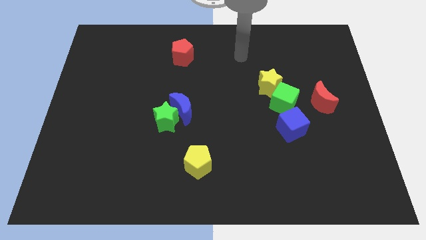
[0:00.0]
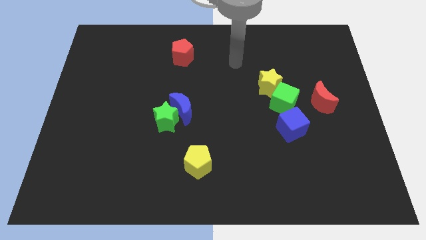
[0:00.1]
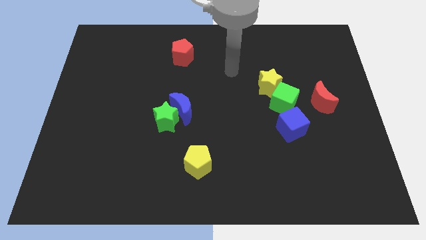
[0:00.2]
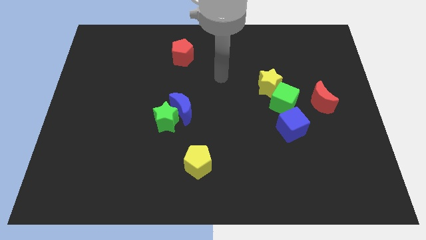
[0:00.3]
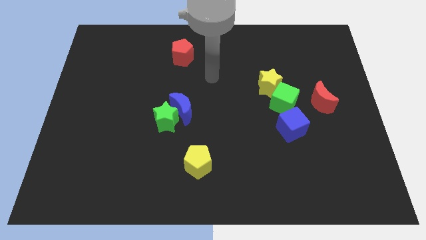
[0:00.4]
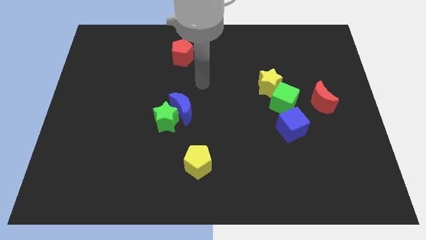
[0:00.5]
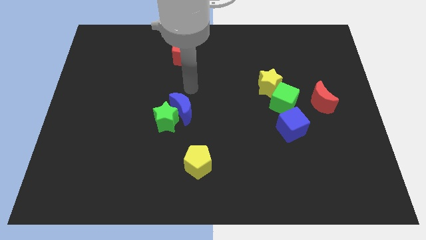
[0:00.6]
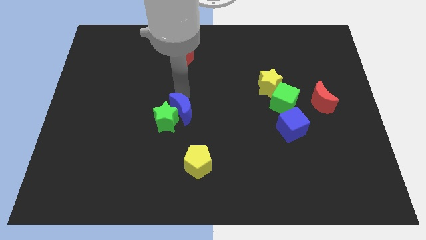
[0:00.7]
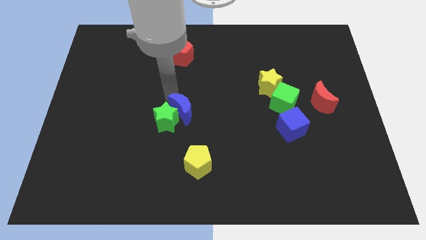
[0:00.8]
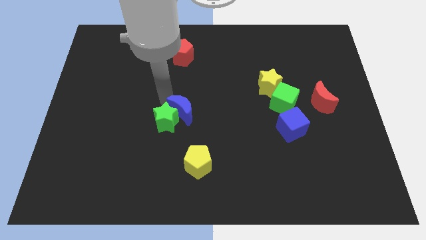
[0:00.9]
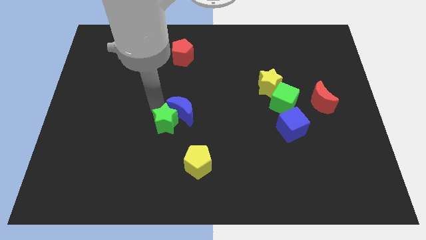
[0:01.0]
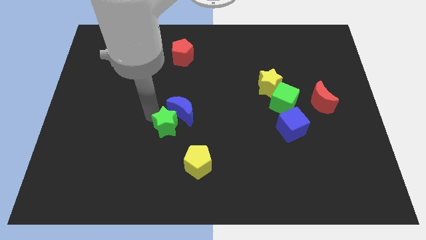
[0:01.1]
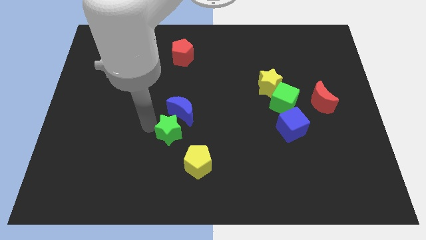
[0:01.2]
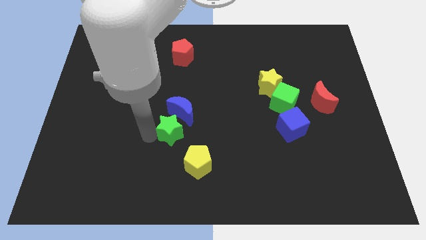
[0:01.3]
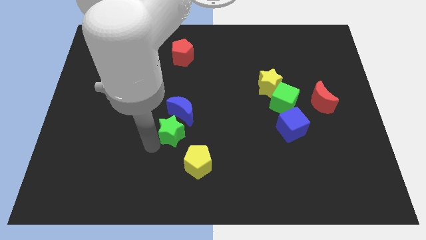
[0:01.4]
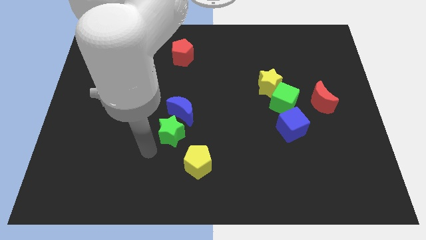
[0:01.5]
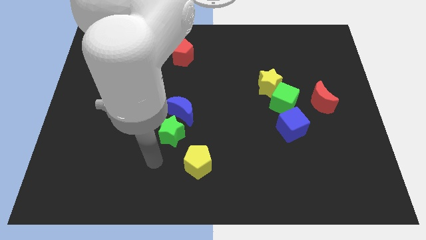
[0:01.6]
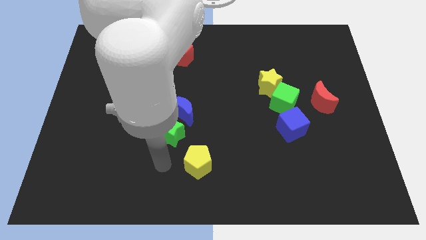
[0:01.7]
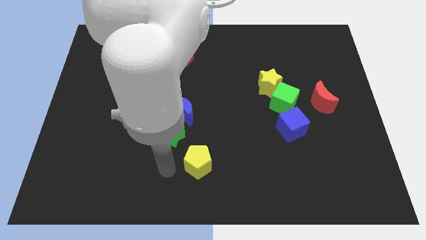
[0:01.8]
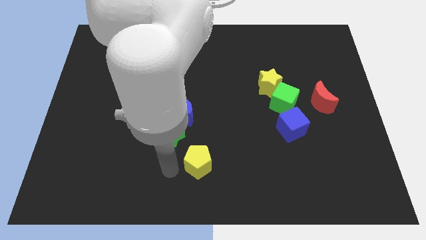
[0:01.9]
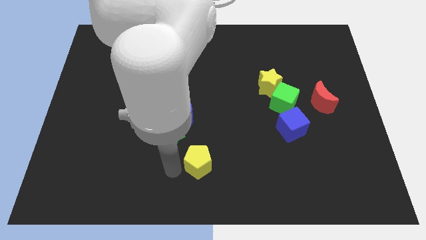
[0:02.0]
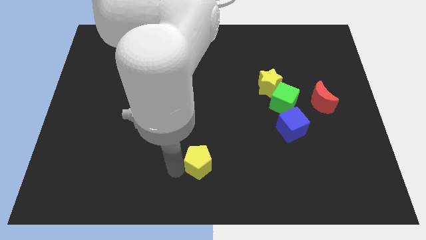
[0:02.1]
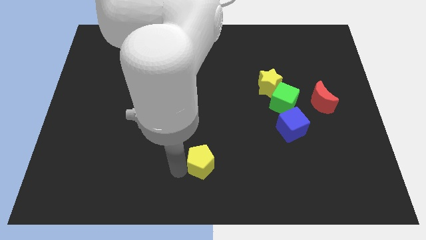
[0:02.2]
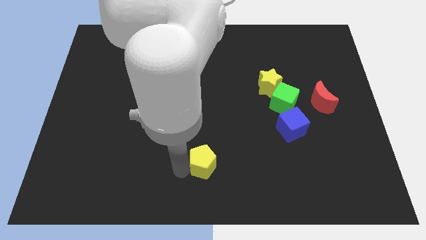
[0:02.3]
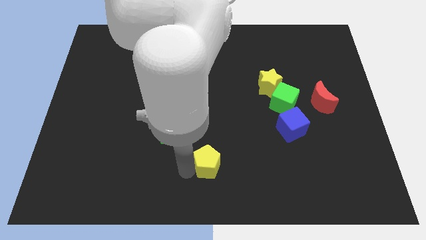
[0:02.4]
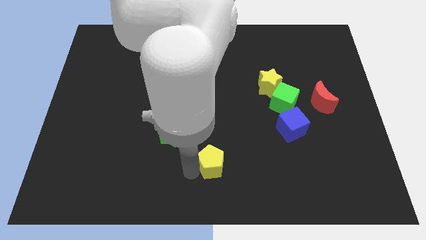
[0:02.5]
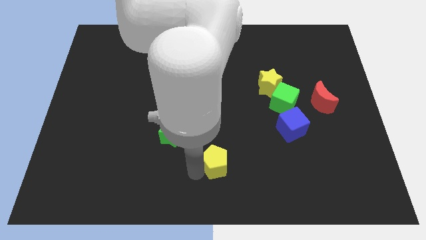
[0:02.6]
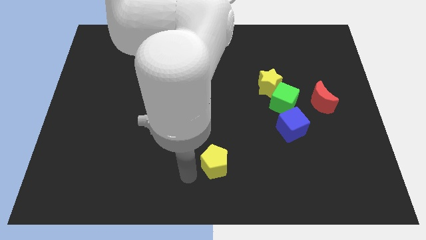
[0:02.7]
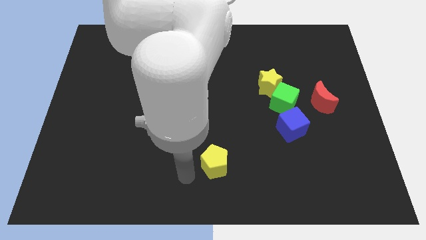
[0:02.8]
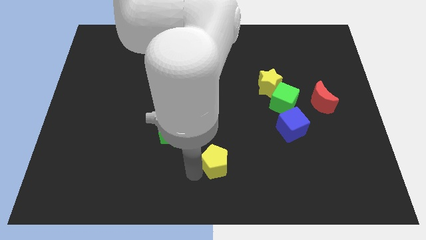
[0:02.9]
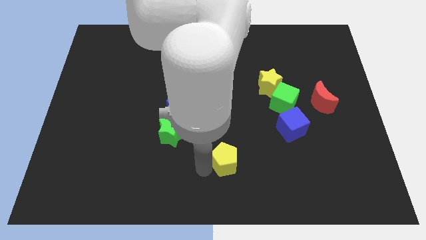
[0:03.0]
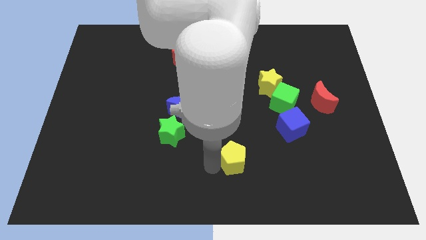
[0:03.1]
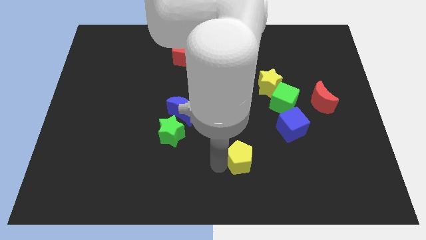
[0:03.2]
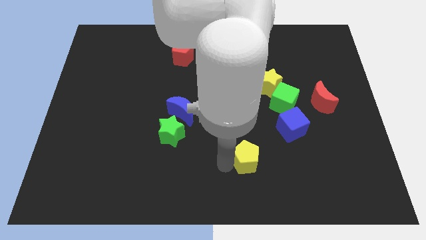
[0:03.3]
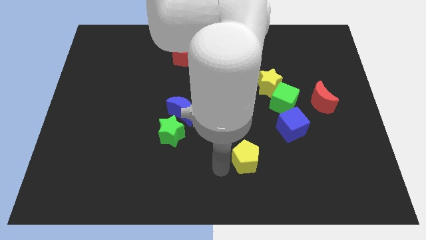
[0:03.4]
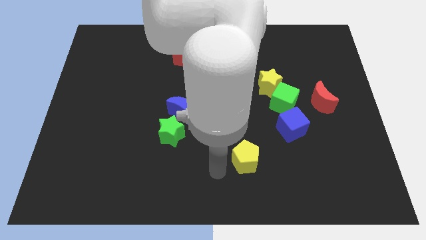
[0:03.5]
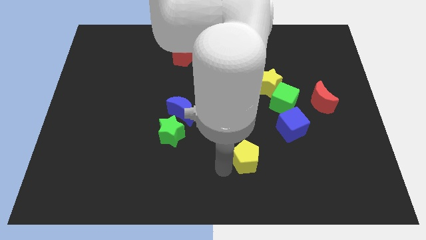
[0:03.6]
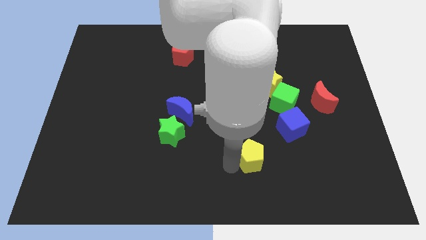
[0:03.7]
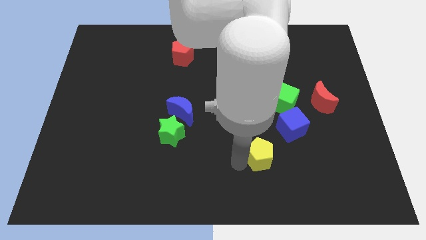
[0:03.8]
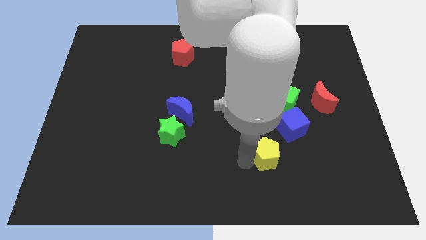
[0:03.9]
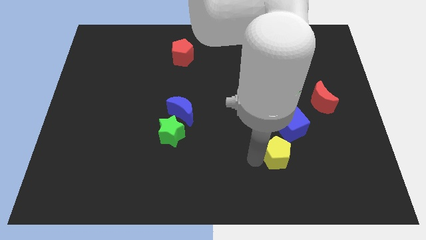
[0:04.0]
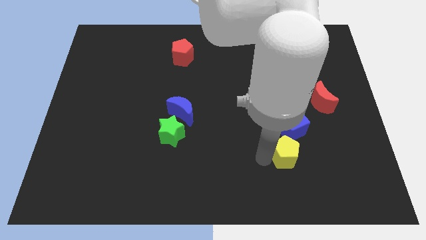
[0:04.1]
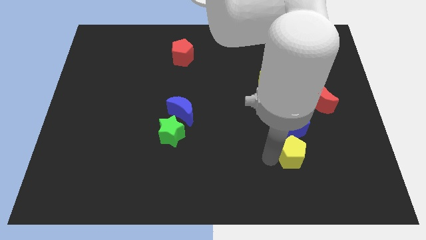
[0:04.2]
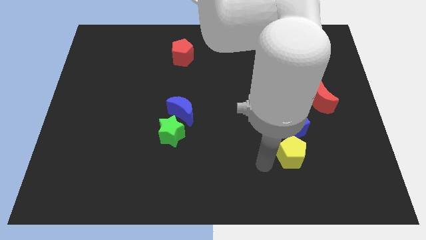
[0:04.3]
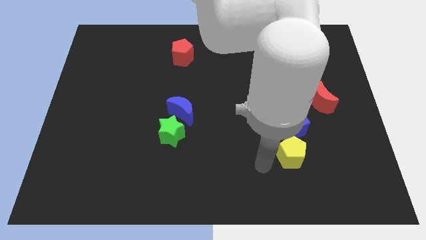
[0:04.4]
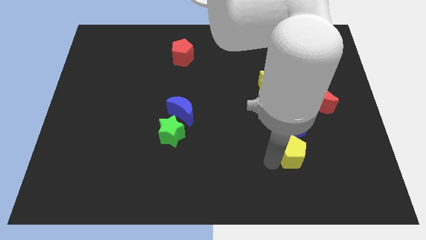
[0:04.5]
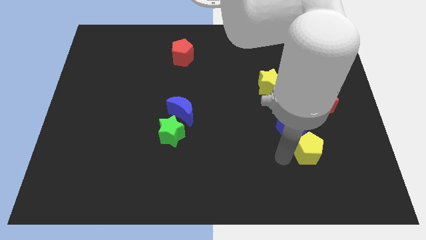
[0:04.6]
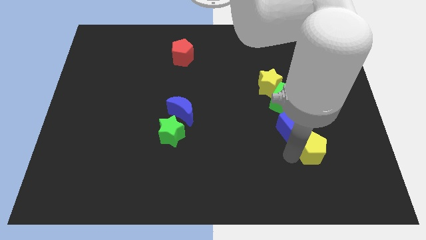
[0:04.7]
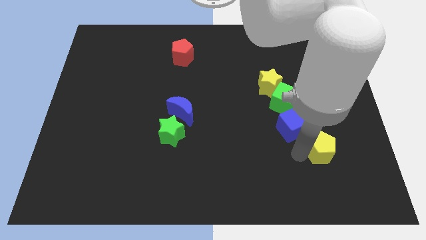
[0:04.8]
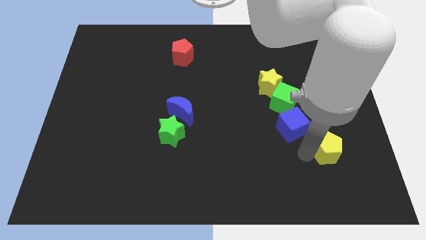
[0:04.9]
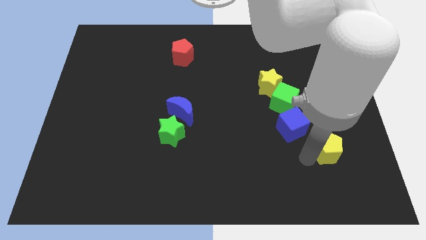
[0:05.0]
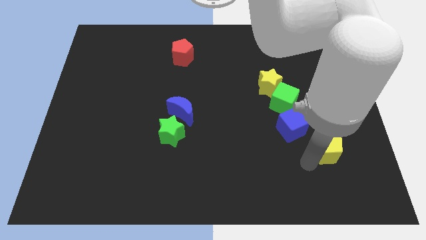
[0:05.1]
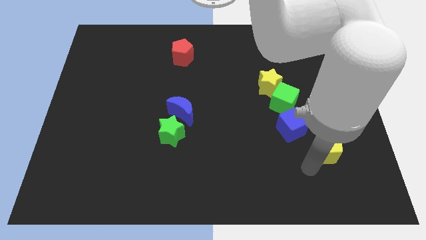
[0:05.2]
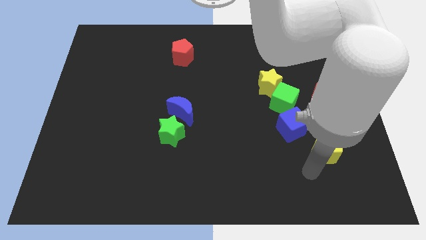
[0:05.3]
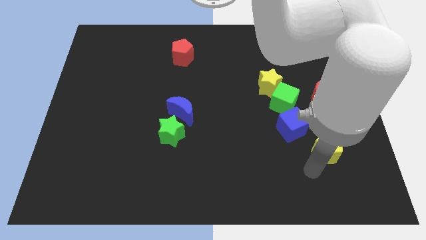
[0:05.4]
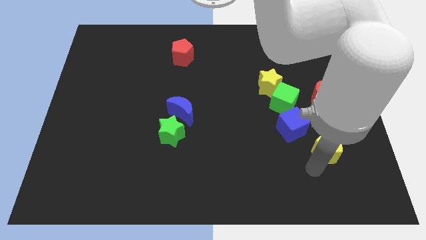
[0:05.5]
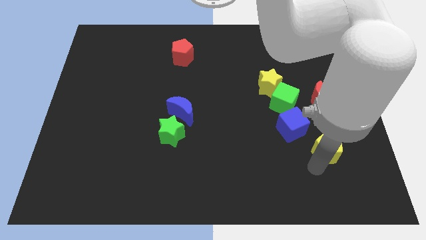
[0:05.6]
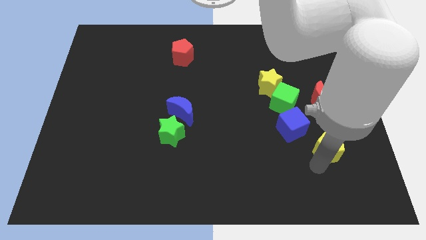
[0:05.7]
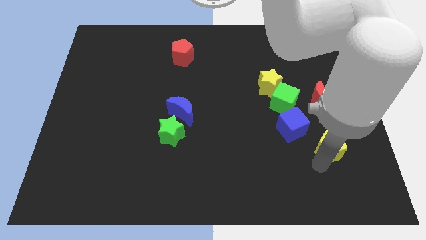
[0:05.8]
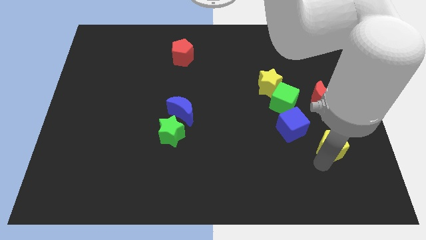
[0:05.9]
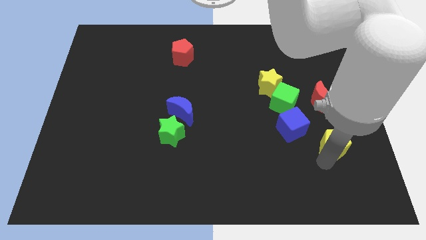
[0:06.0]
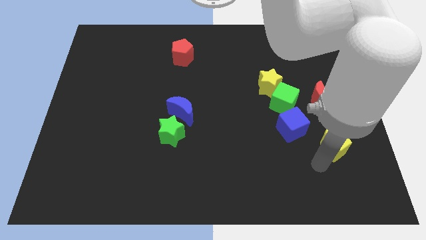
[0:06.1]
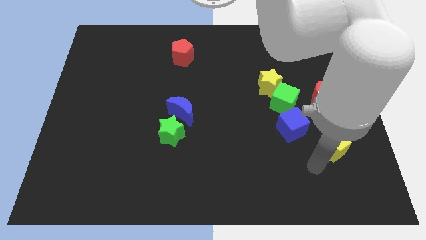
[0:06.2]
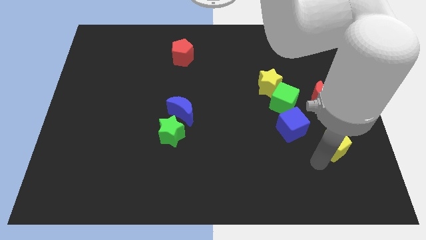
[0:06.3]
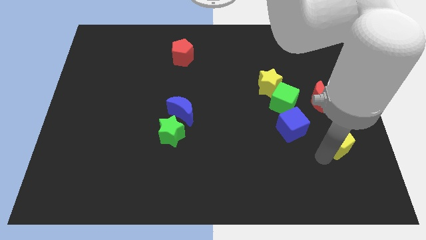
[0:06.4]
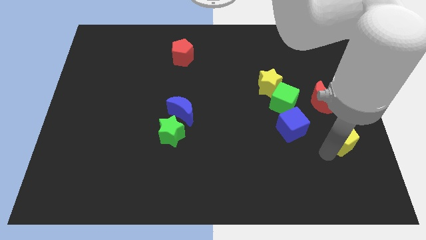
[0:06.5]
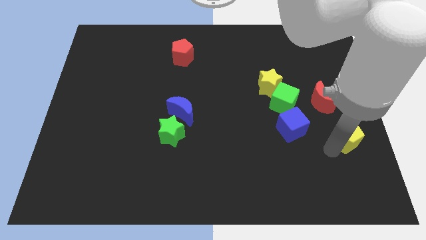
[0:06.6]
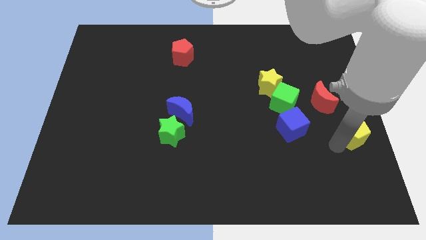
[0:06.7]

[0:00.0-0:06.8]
put the yellow pentagon to the right side
